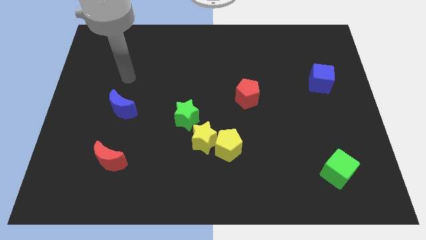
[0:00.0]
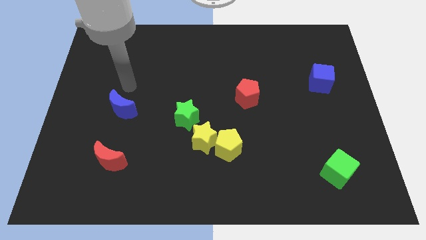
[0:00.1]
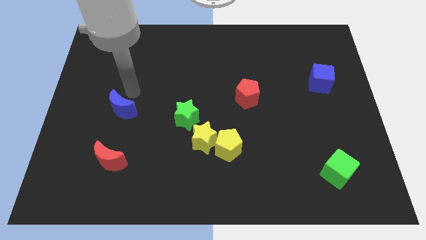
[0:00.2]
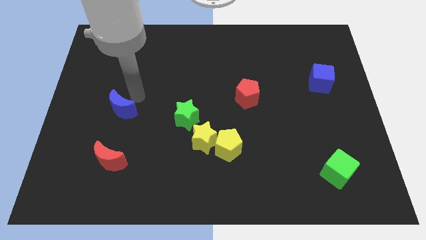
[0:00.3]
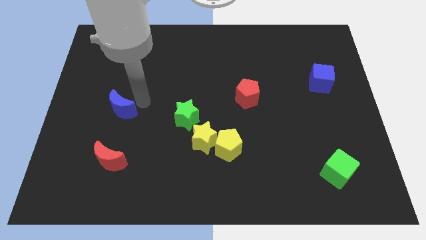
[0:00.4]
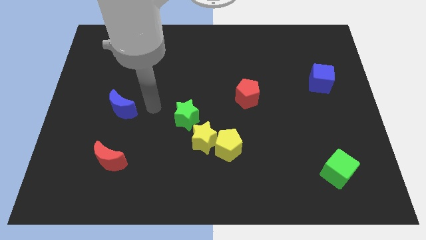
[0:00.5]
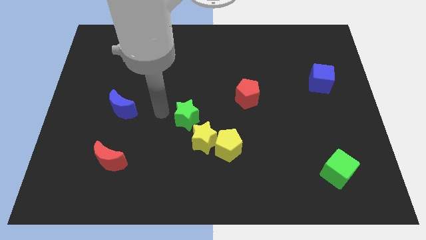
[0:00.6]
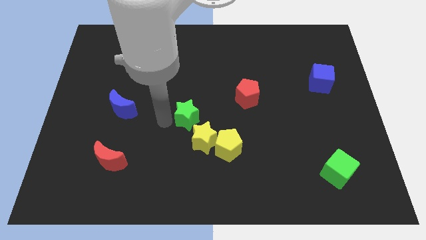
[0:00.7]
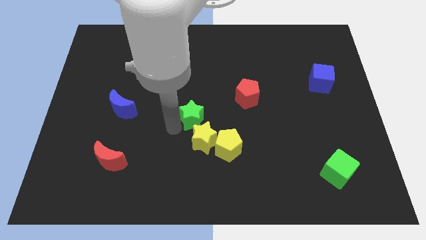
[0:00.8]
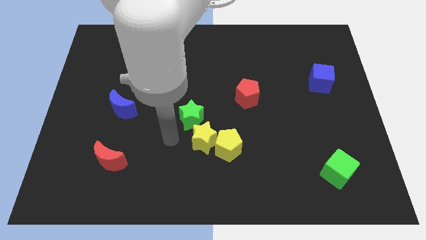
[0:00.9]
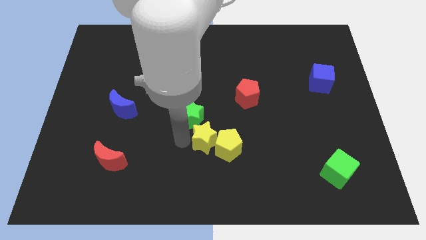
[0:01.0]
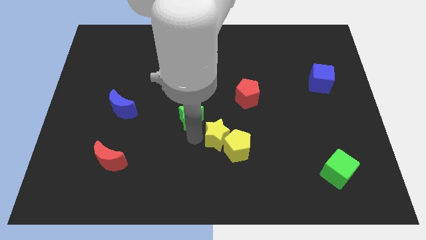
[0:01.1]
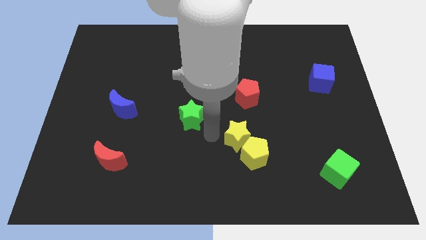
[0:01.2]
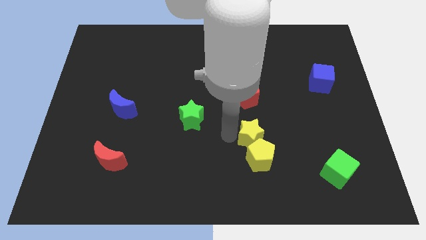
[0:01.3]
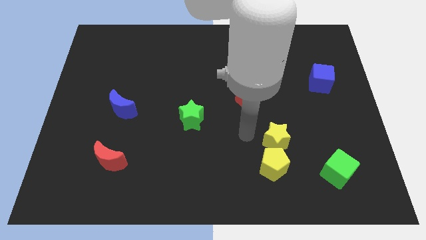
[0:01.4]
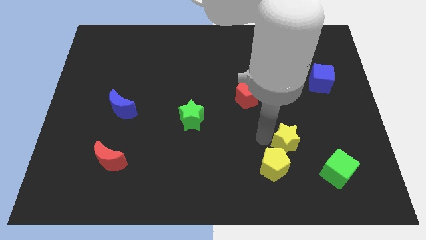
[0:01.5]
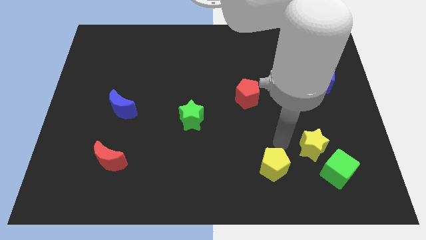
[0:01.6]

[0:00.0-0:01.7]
move the yellow pentagon away from the yellow star

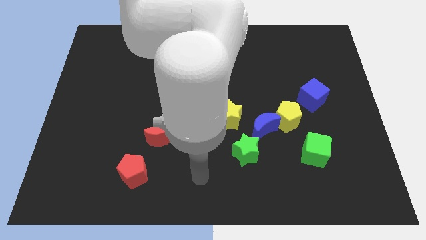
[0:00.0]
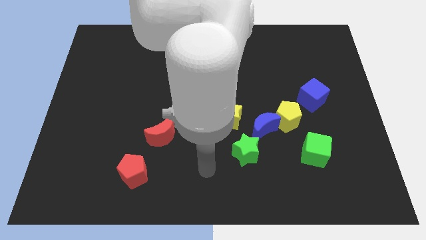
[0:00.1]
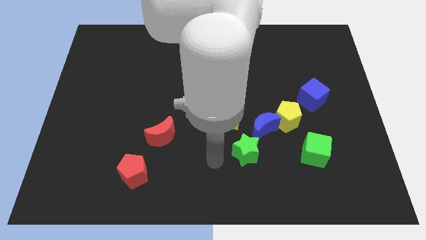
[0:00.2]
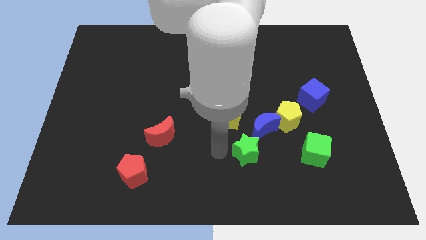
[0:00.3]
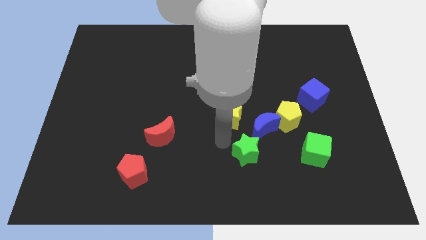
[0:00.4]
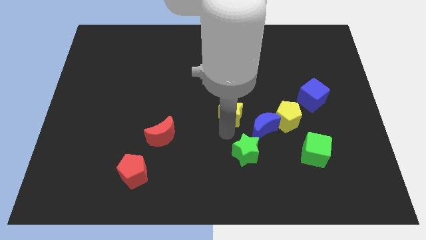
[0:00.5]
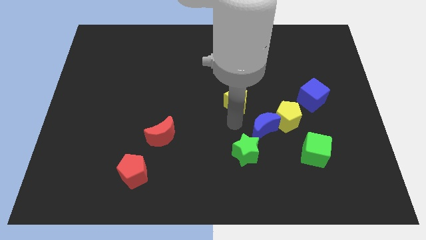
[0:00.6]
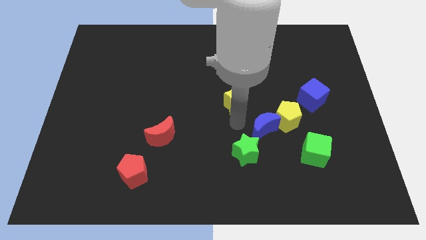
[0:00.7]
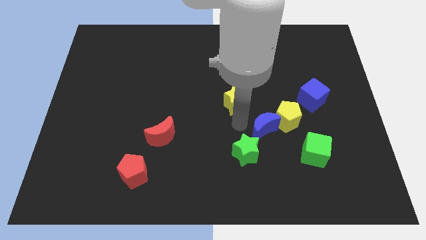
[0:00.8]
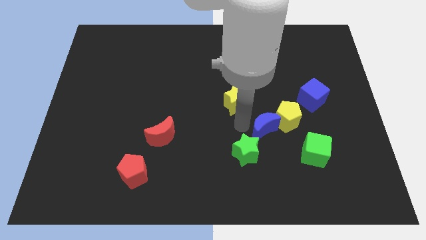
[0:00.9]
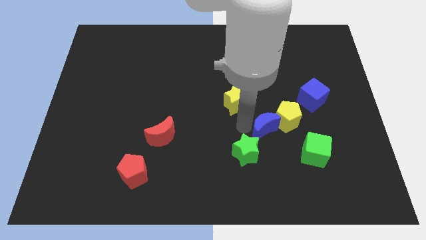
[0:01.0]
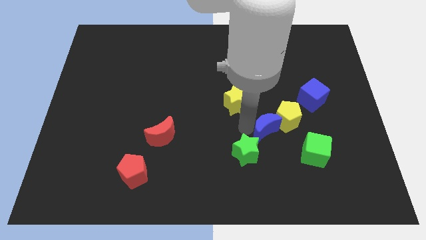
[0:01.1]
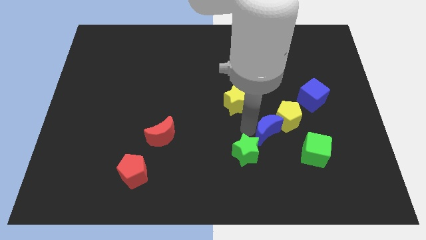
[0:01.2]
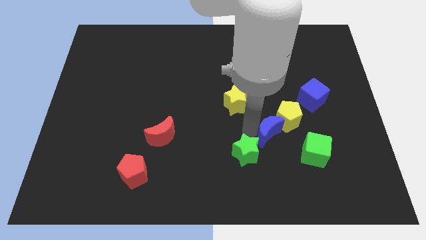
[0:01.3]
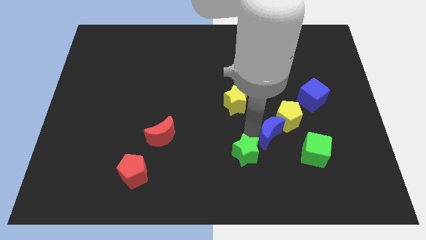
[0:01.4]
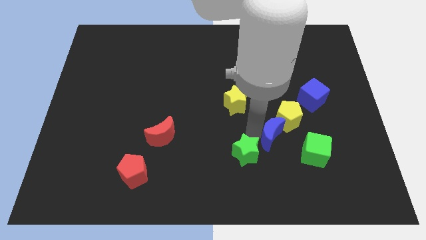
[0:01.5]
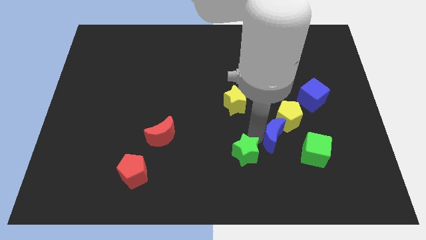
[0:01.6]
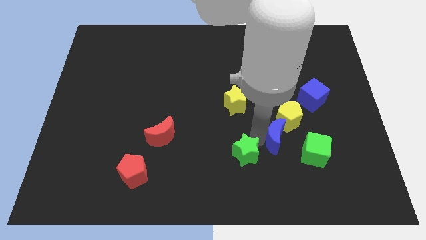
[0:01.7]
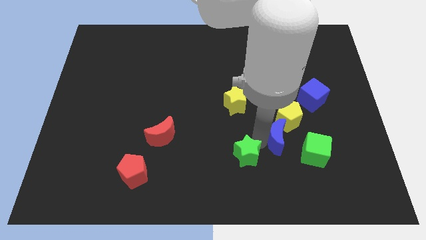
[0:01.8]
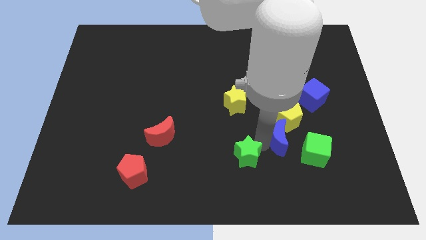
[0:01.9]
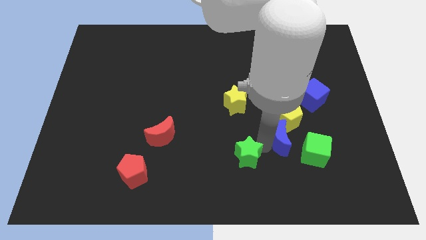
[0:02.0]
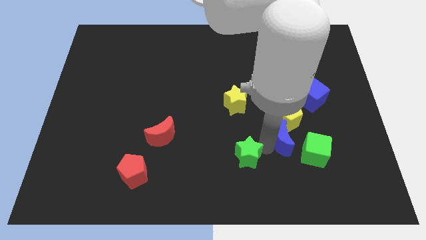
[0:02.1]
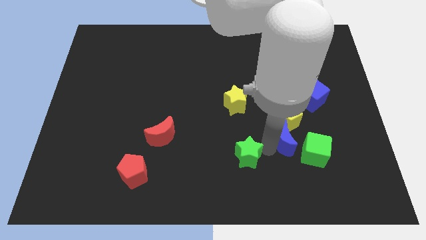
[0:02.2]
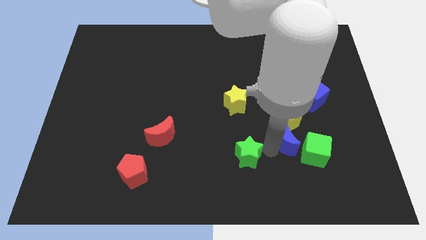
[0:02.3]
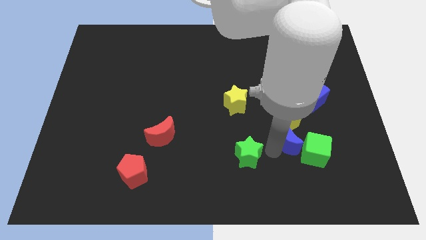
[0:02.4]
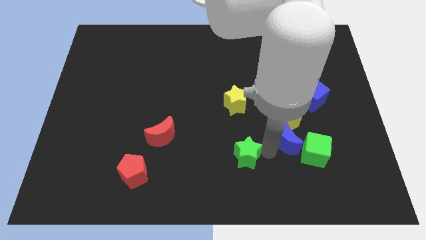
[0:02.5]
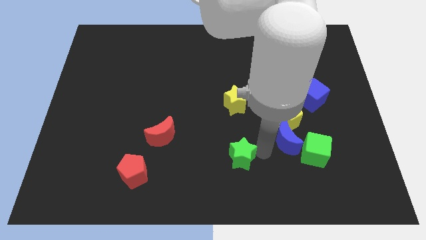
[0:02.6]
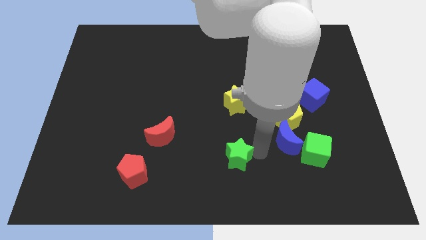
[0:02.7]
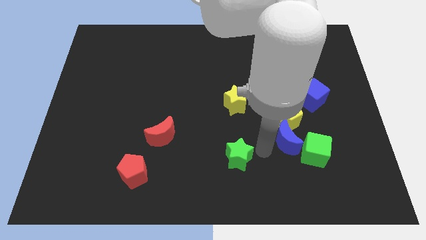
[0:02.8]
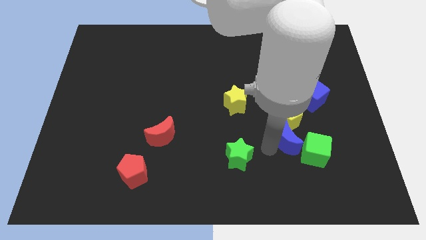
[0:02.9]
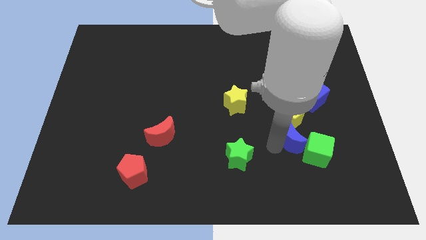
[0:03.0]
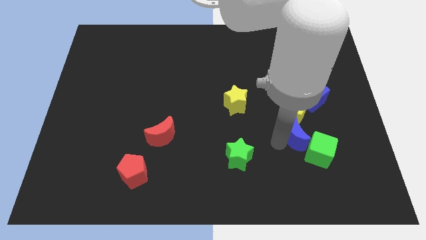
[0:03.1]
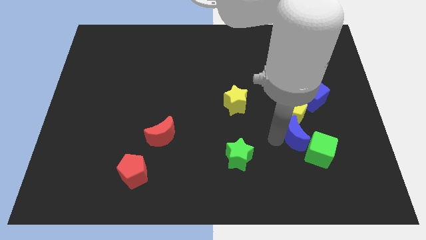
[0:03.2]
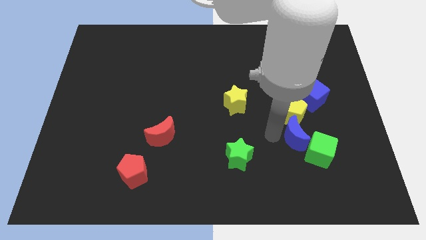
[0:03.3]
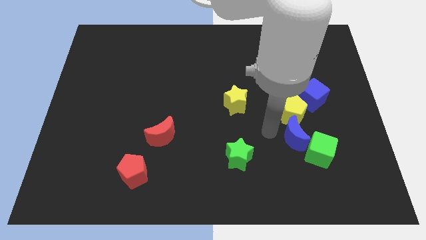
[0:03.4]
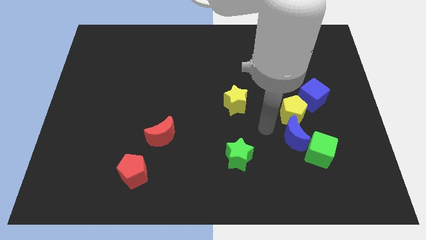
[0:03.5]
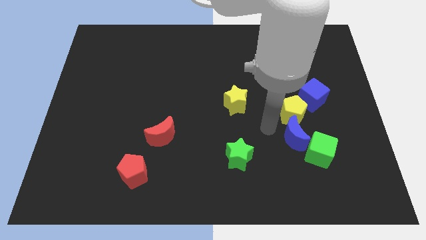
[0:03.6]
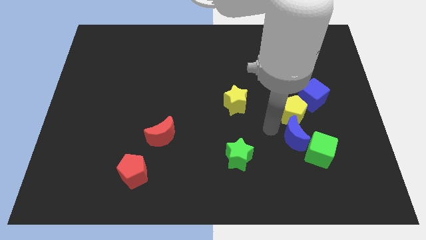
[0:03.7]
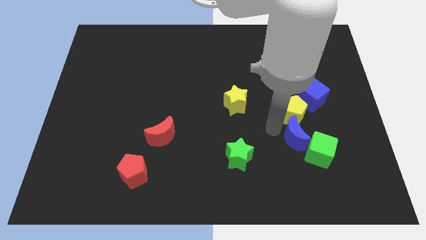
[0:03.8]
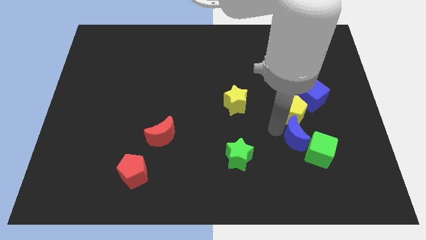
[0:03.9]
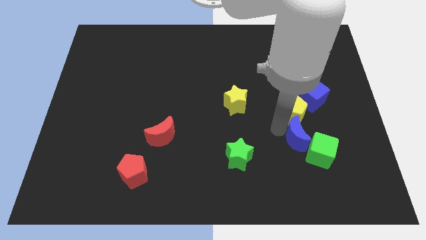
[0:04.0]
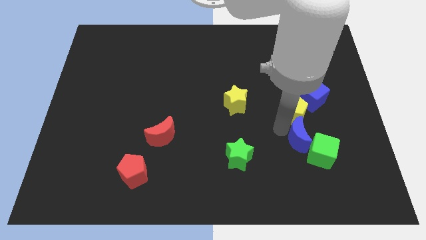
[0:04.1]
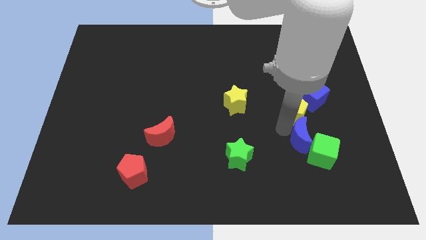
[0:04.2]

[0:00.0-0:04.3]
move the blue moon away from the yellow pentagon, green star, and yellow star

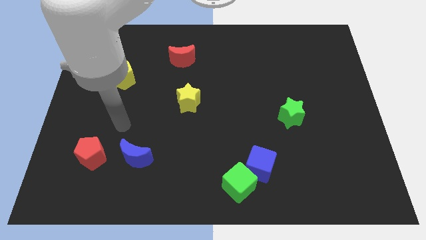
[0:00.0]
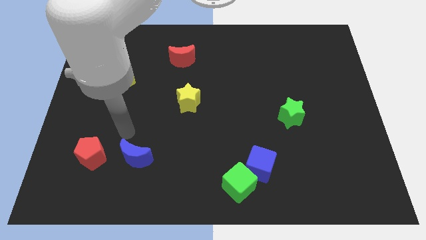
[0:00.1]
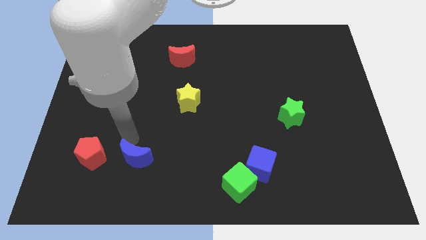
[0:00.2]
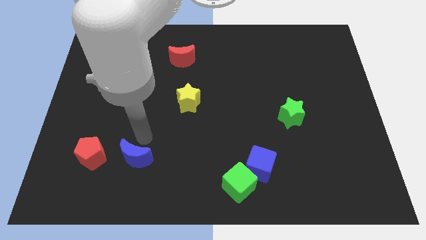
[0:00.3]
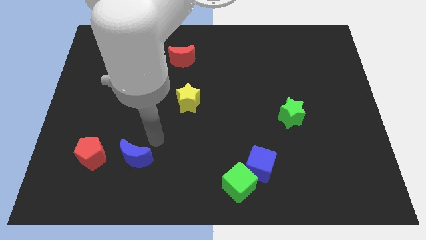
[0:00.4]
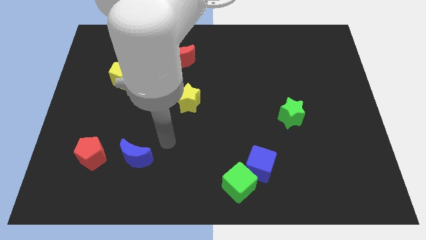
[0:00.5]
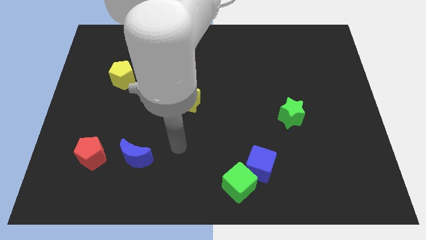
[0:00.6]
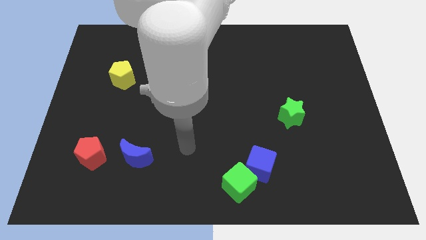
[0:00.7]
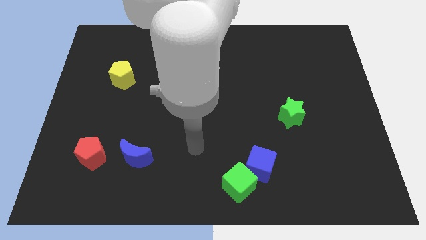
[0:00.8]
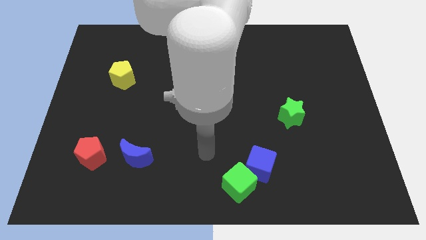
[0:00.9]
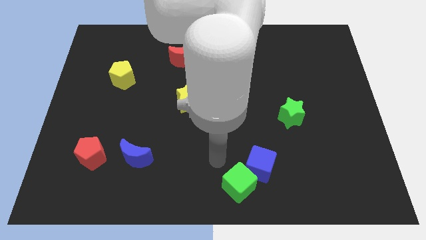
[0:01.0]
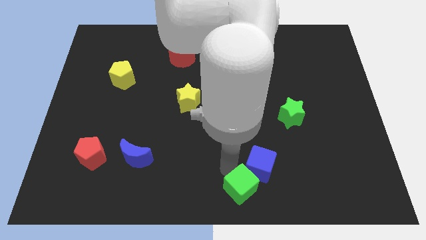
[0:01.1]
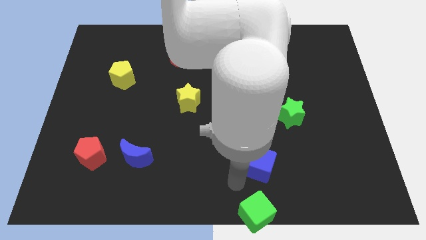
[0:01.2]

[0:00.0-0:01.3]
move the blue cube away from the green cube

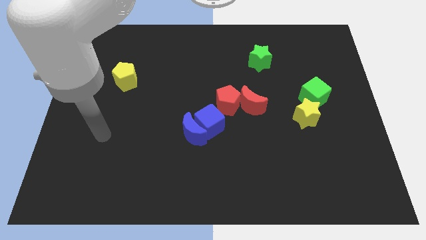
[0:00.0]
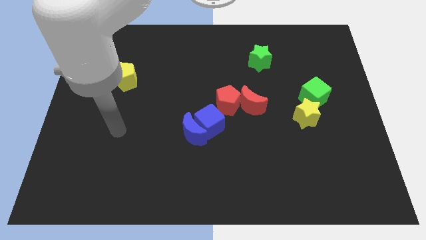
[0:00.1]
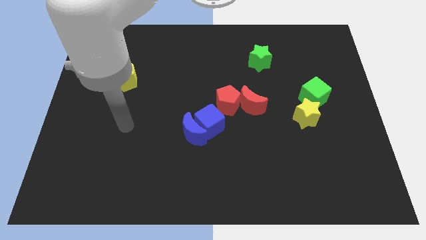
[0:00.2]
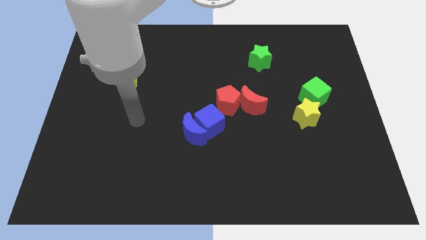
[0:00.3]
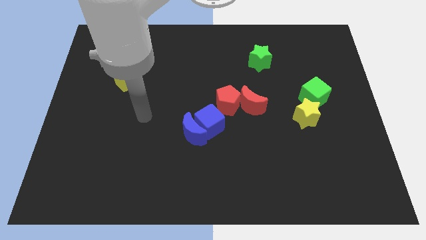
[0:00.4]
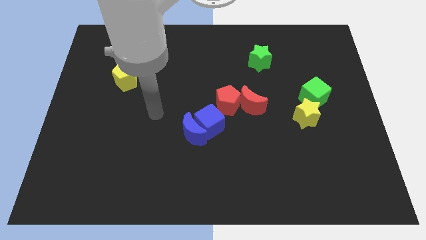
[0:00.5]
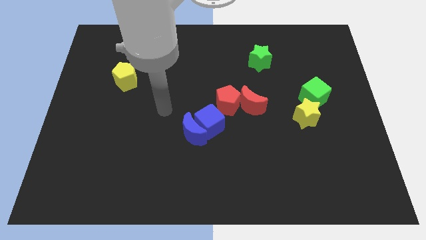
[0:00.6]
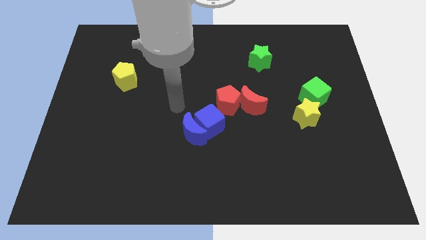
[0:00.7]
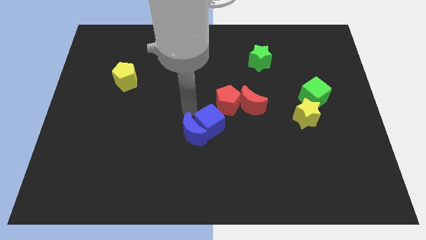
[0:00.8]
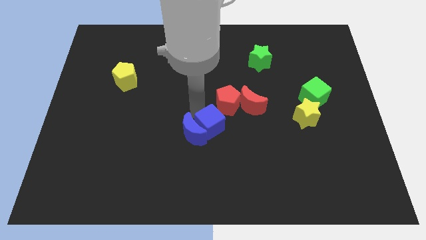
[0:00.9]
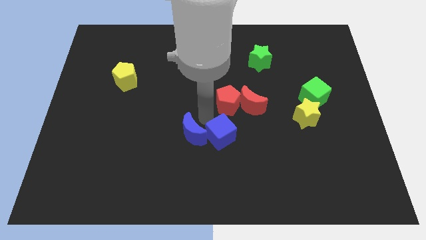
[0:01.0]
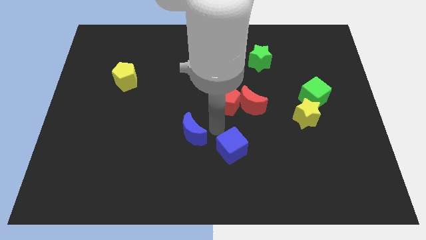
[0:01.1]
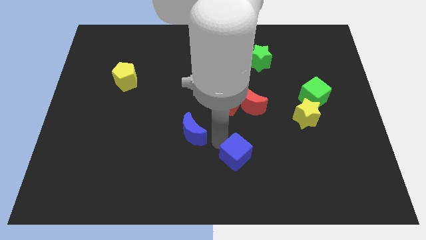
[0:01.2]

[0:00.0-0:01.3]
separate the blue moon from the blue cube

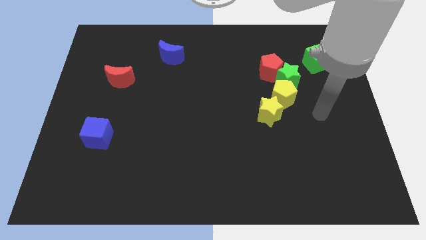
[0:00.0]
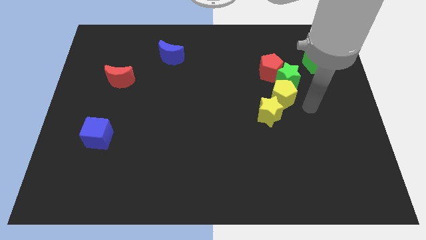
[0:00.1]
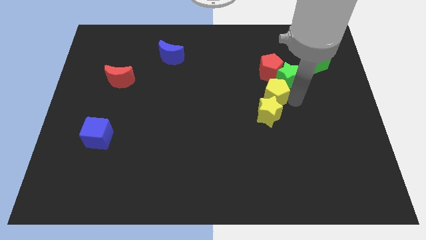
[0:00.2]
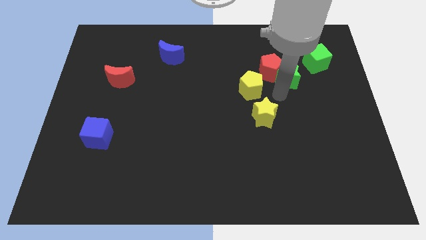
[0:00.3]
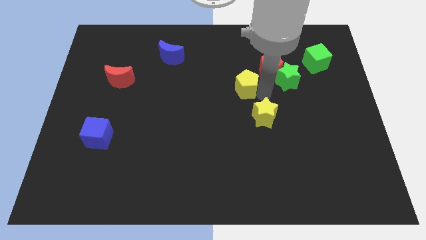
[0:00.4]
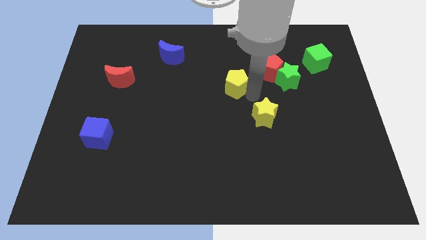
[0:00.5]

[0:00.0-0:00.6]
pull the yellow star apart from the yellow pentagon

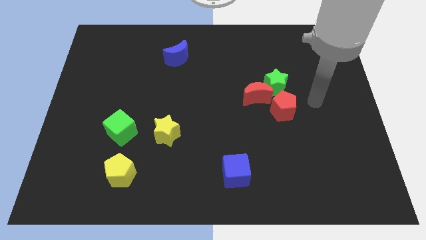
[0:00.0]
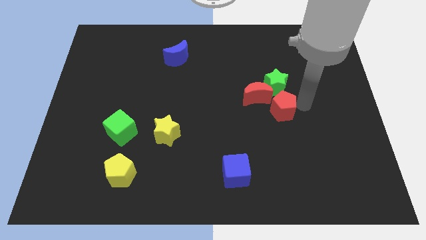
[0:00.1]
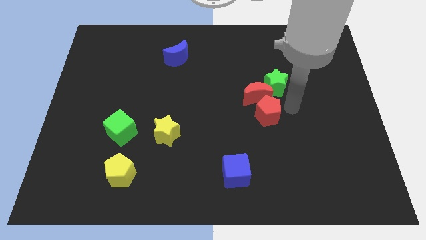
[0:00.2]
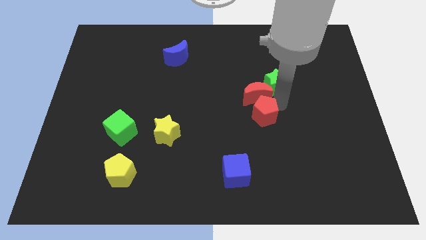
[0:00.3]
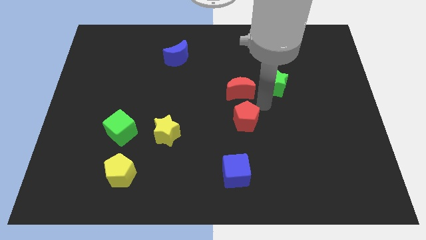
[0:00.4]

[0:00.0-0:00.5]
separate the green star from the red moon and red pentagon
